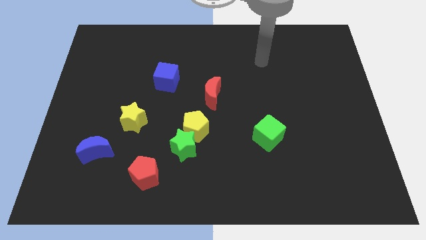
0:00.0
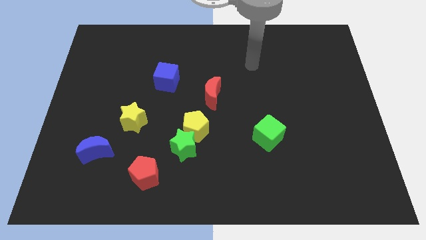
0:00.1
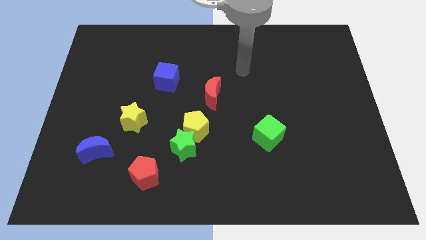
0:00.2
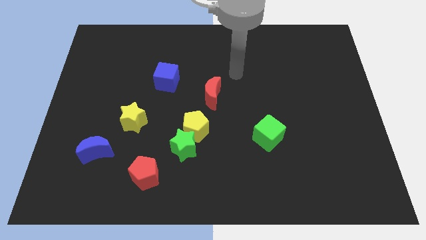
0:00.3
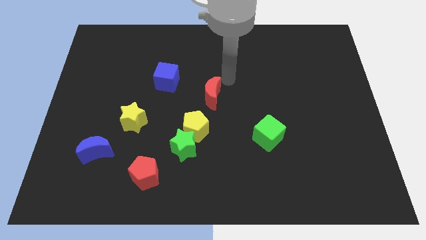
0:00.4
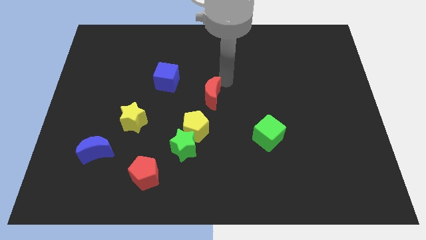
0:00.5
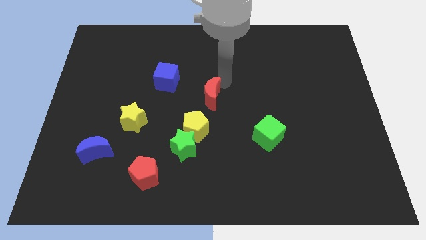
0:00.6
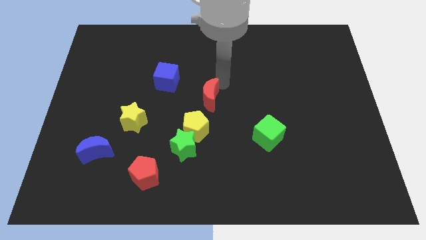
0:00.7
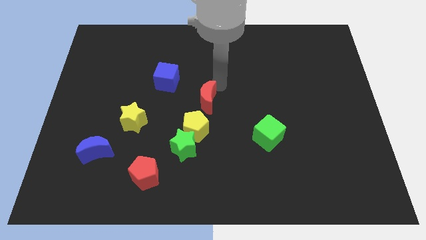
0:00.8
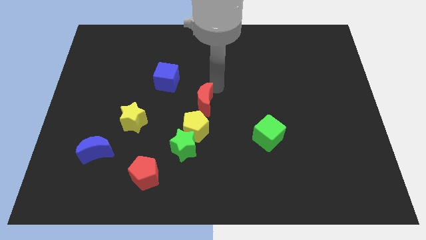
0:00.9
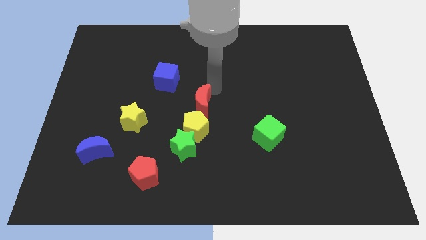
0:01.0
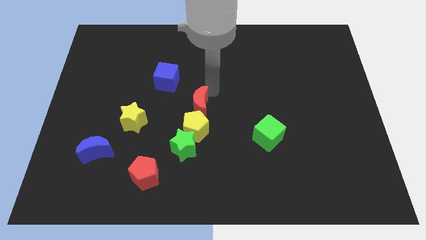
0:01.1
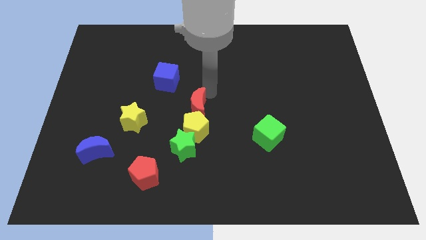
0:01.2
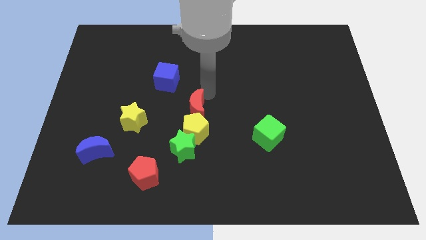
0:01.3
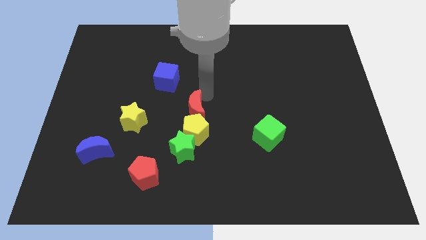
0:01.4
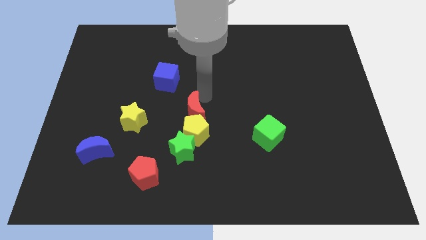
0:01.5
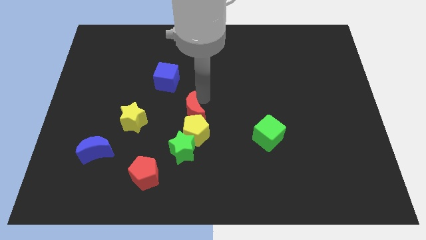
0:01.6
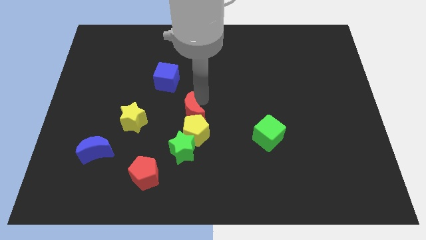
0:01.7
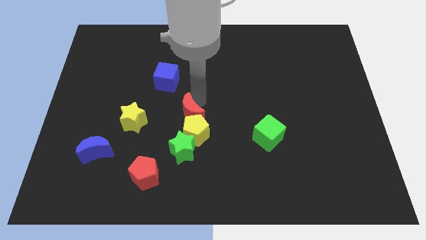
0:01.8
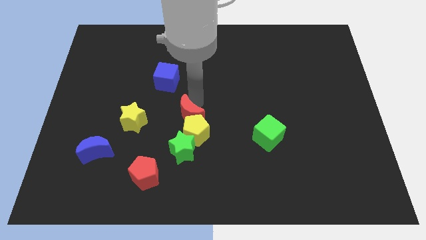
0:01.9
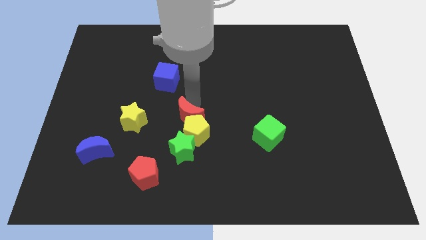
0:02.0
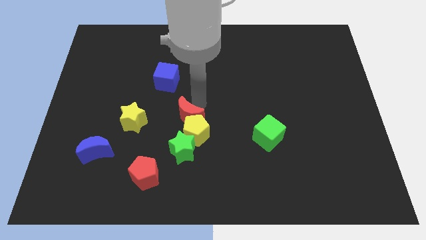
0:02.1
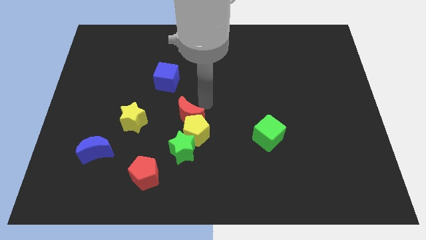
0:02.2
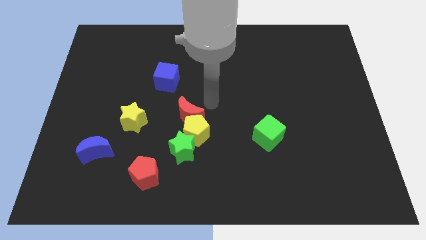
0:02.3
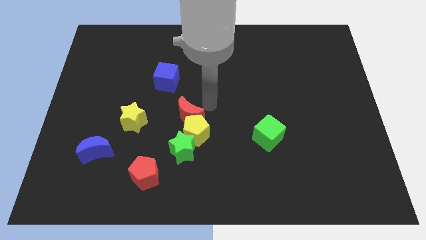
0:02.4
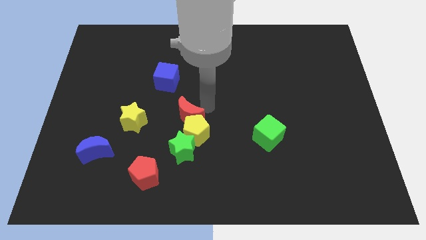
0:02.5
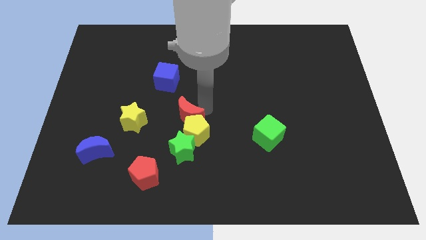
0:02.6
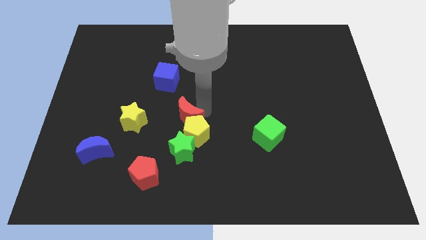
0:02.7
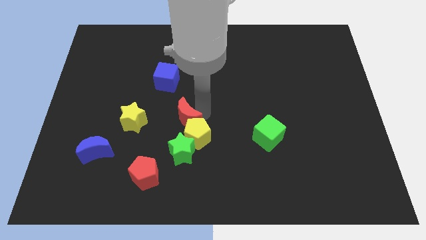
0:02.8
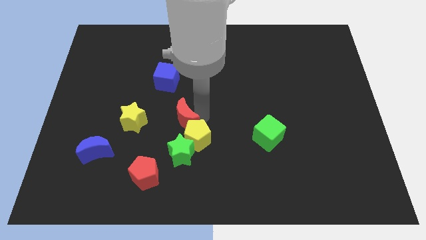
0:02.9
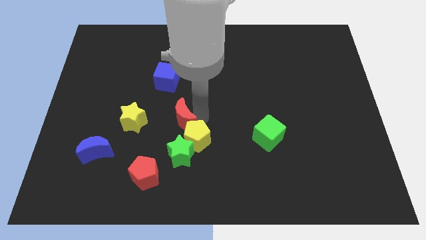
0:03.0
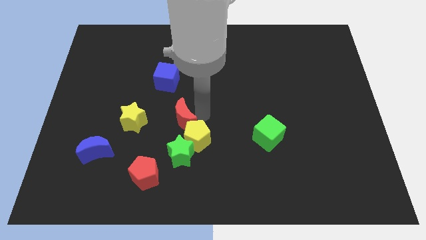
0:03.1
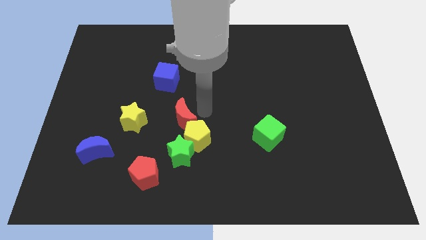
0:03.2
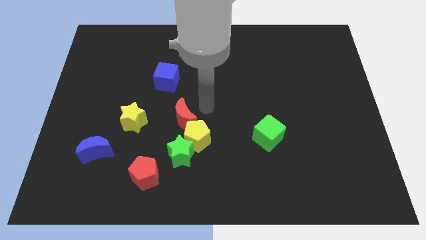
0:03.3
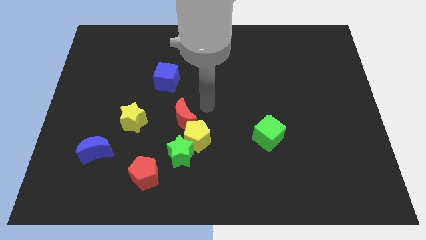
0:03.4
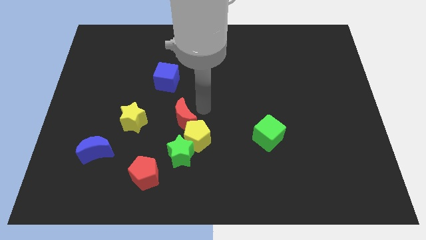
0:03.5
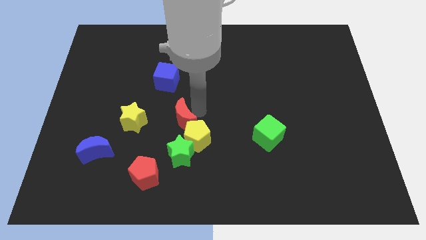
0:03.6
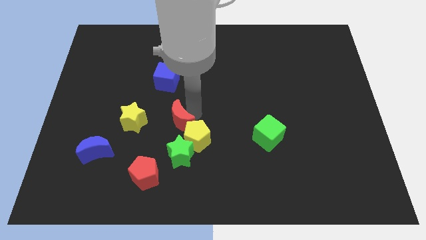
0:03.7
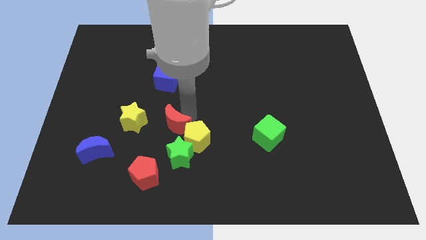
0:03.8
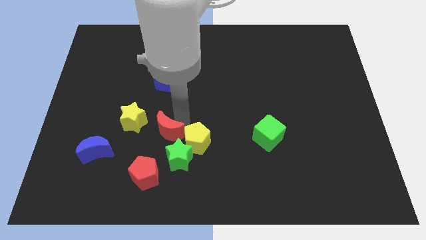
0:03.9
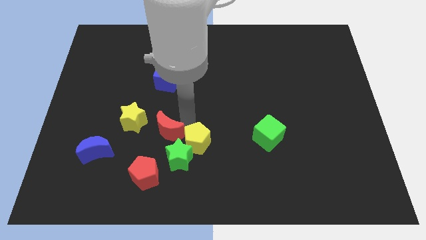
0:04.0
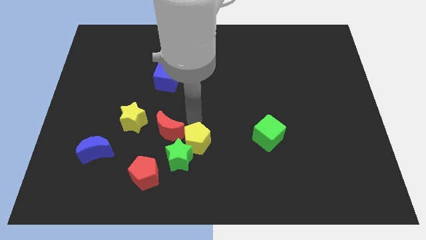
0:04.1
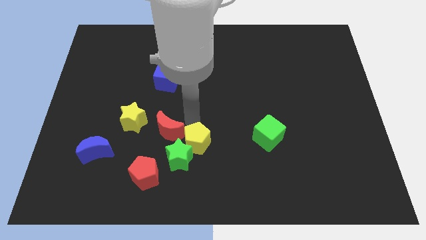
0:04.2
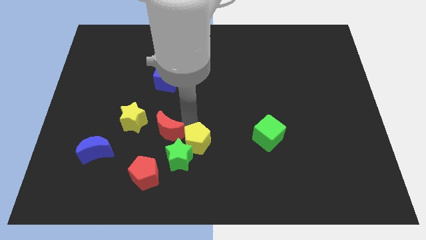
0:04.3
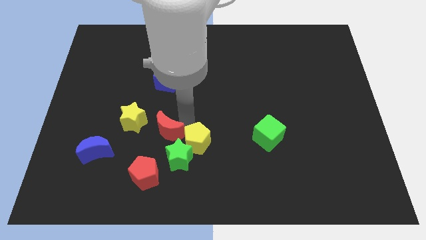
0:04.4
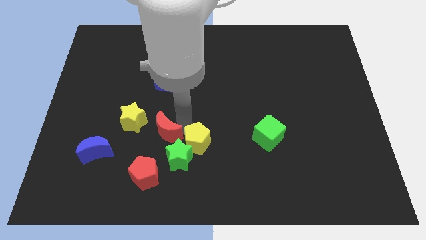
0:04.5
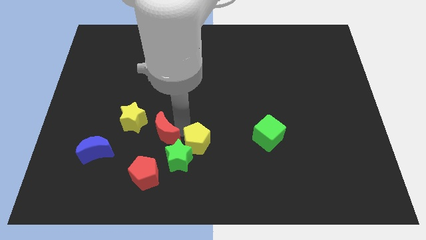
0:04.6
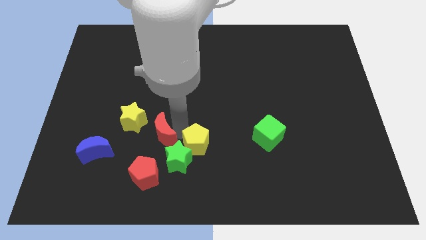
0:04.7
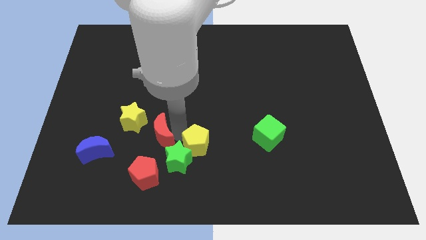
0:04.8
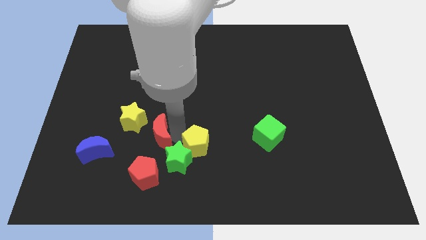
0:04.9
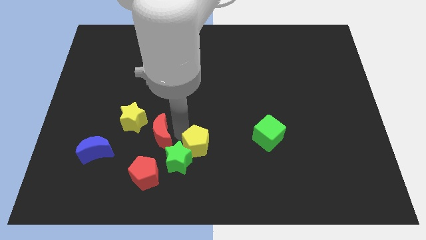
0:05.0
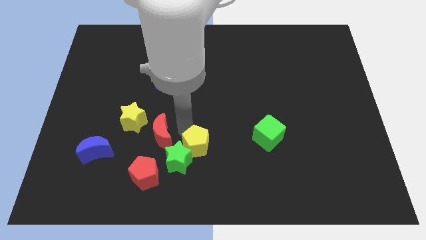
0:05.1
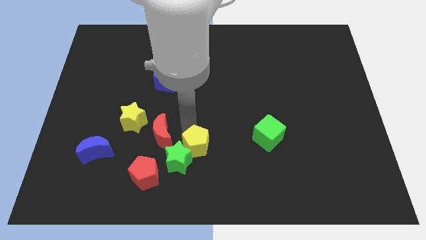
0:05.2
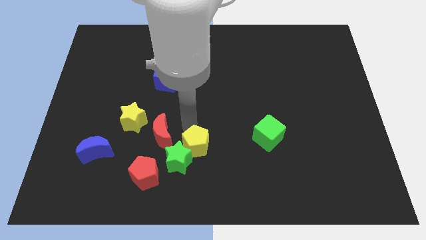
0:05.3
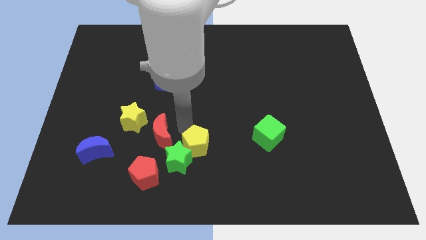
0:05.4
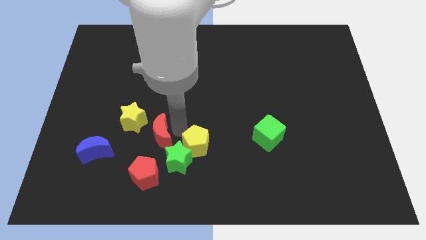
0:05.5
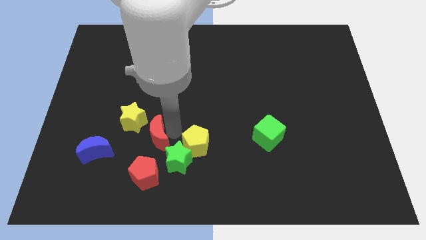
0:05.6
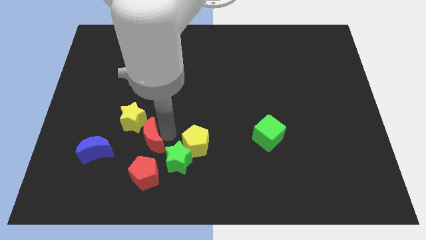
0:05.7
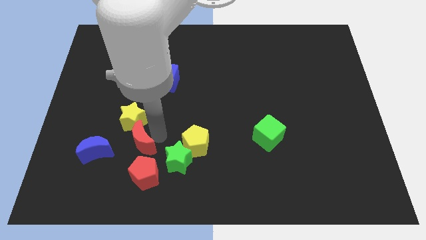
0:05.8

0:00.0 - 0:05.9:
push the red moon downwards and then left

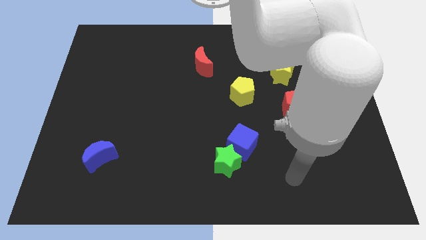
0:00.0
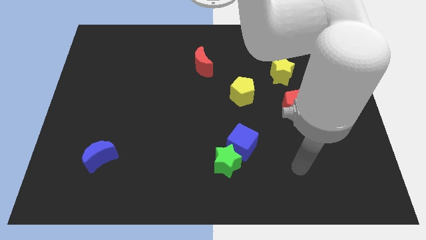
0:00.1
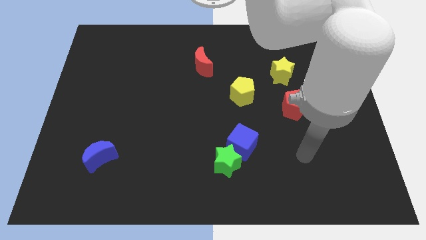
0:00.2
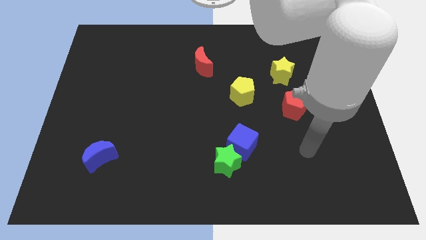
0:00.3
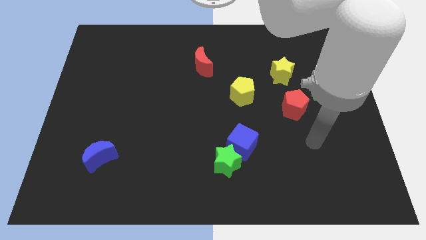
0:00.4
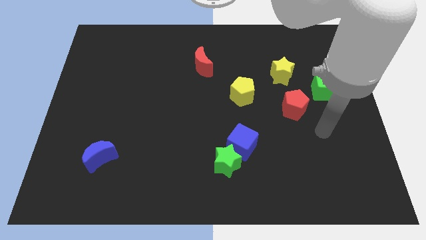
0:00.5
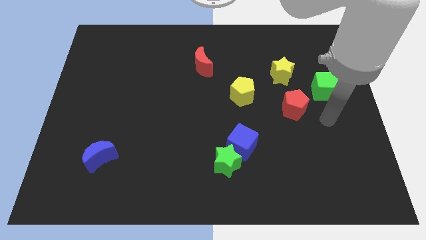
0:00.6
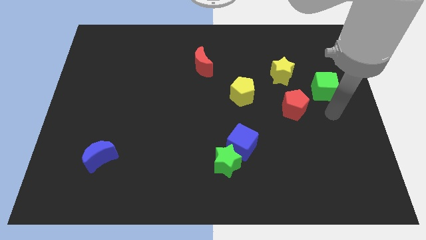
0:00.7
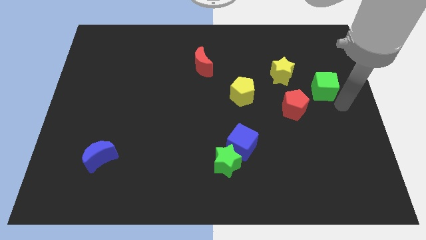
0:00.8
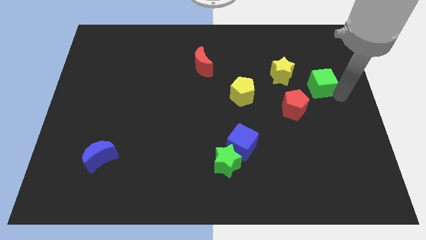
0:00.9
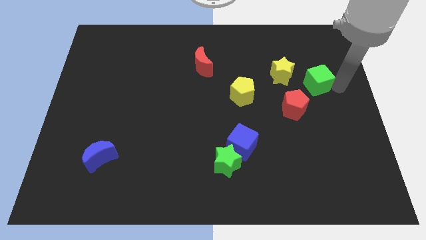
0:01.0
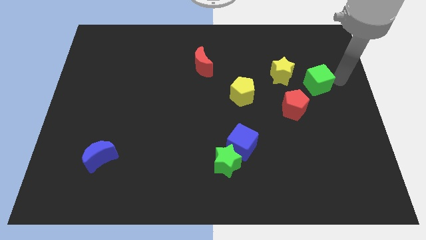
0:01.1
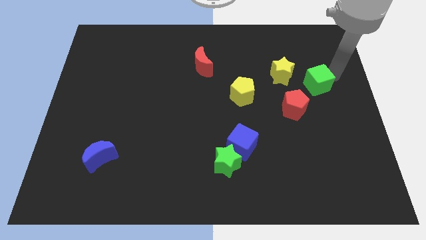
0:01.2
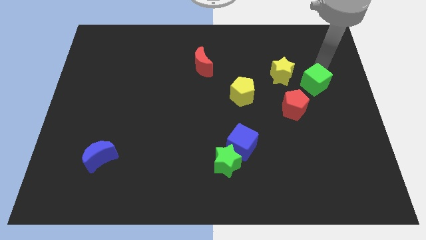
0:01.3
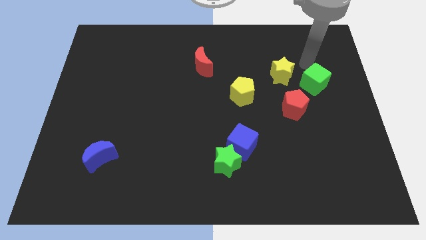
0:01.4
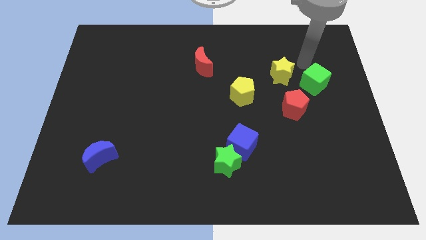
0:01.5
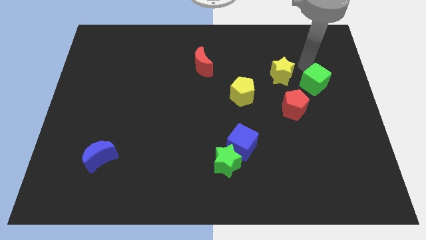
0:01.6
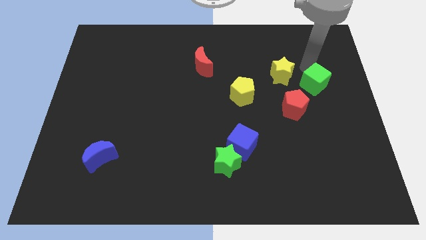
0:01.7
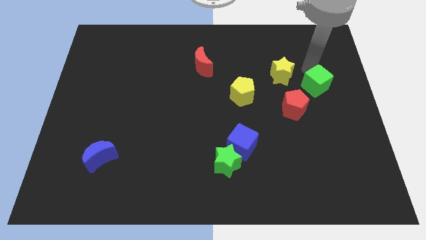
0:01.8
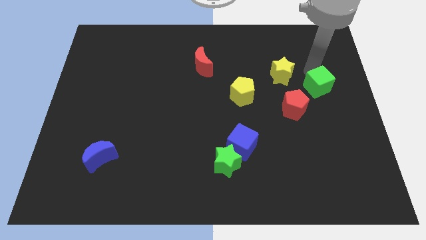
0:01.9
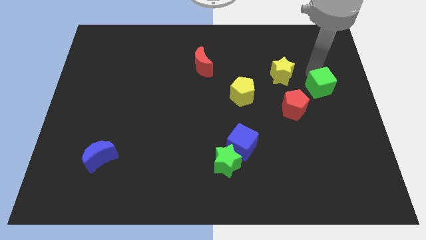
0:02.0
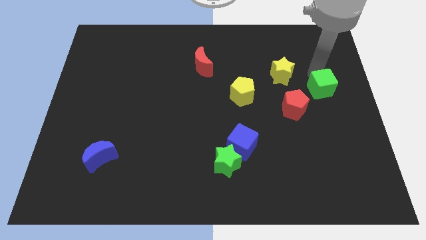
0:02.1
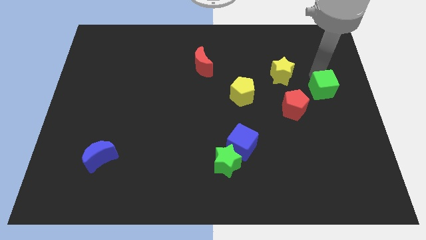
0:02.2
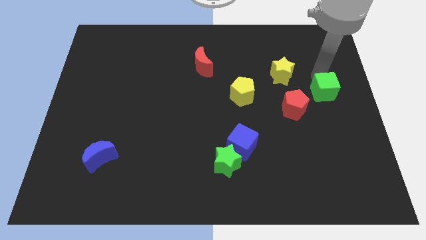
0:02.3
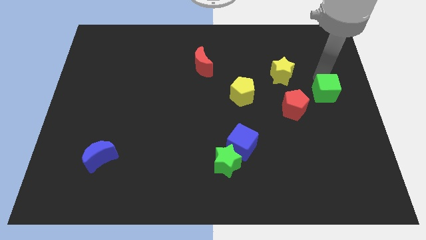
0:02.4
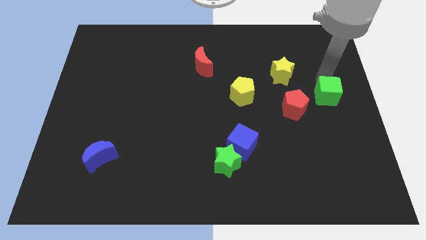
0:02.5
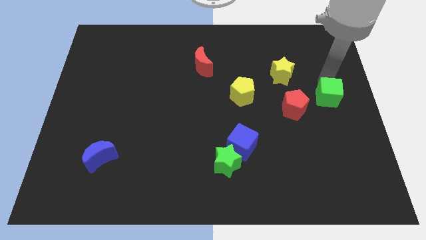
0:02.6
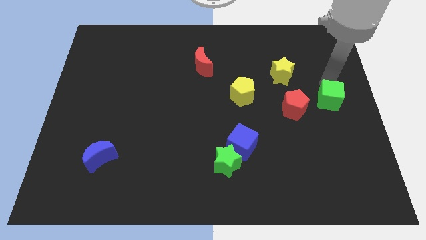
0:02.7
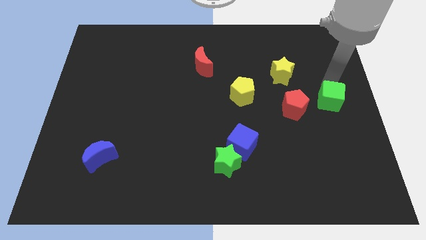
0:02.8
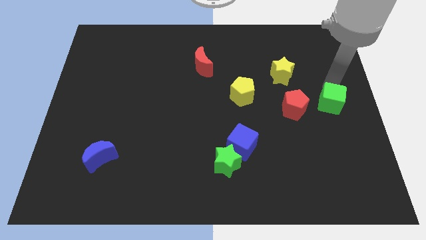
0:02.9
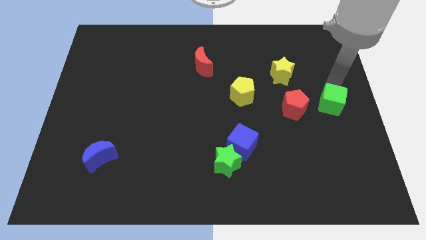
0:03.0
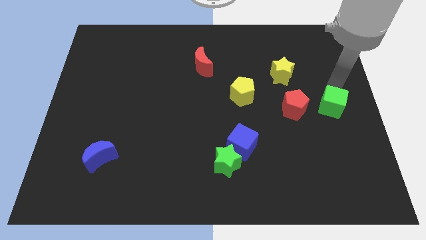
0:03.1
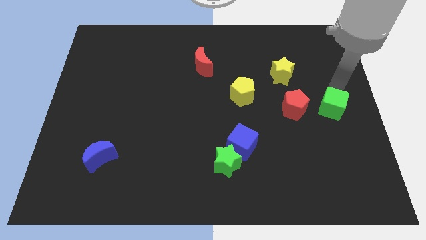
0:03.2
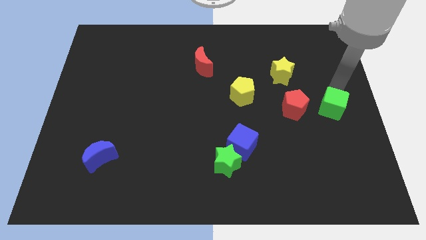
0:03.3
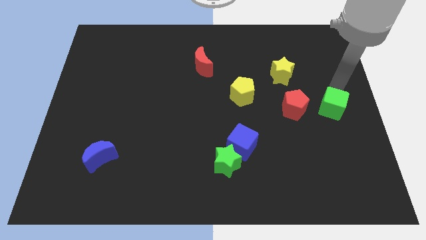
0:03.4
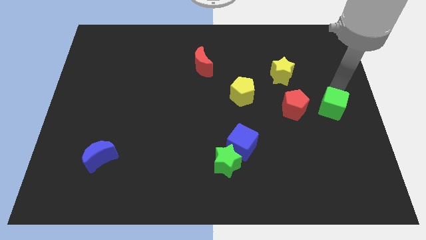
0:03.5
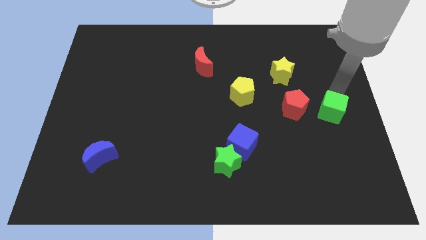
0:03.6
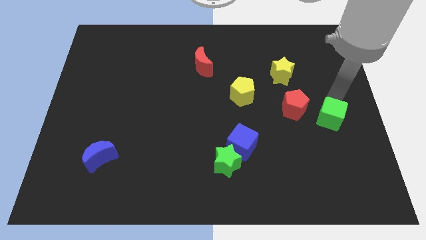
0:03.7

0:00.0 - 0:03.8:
slide the green cube down a bit
